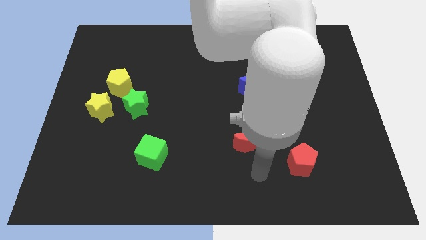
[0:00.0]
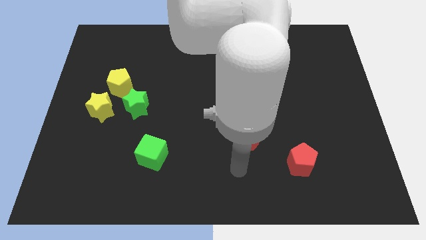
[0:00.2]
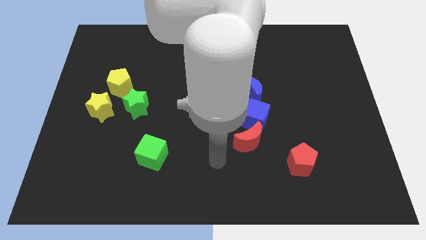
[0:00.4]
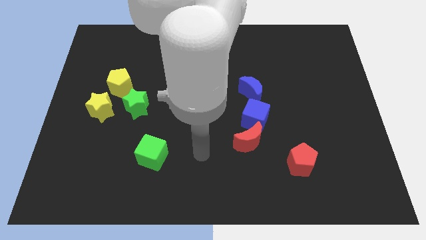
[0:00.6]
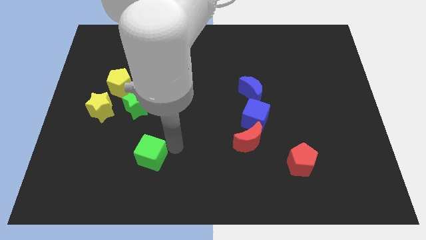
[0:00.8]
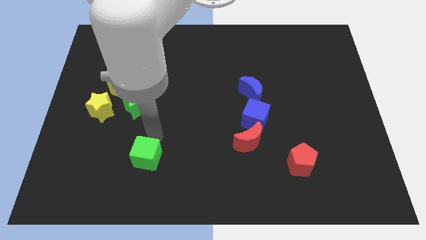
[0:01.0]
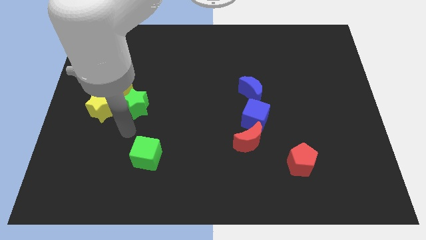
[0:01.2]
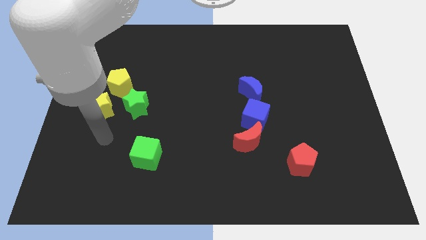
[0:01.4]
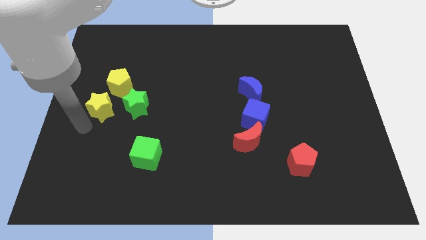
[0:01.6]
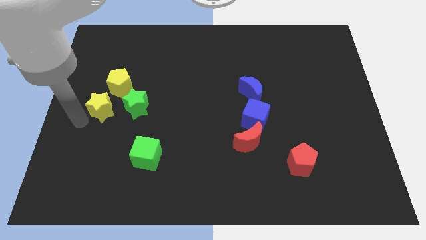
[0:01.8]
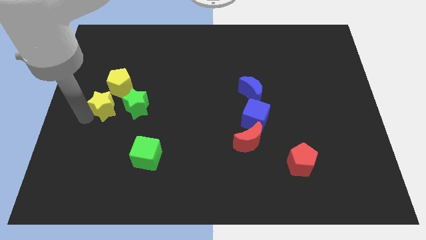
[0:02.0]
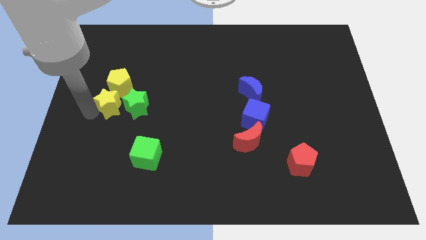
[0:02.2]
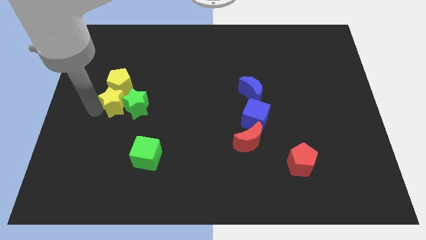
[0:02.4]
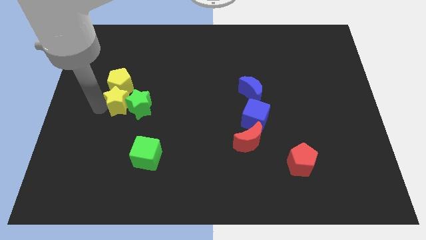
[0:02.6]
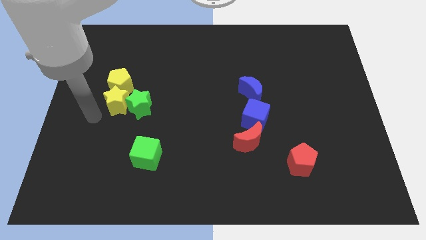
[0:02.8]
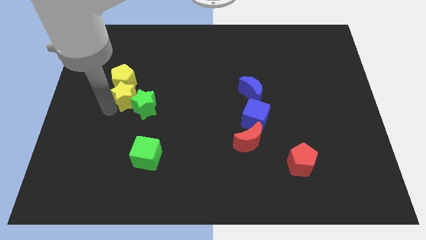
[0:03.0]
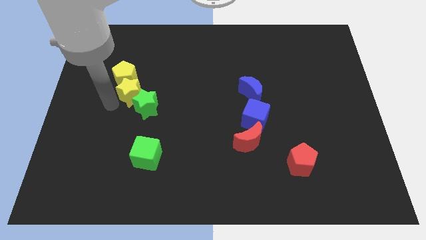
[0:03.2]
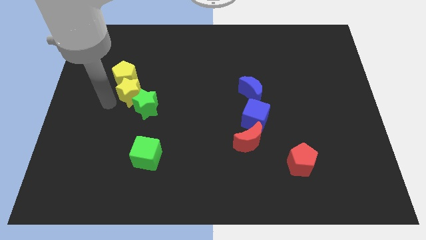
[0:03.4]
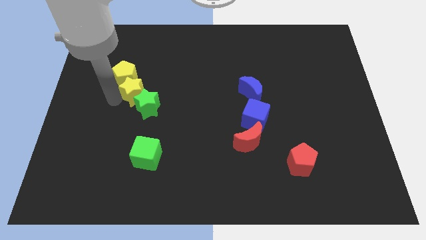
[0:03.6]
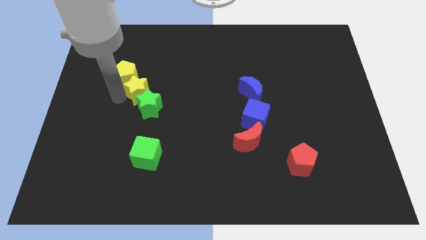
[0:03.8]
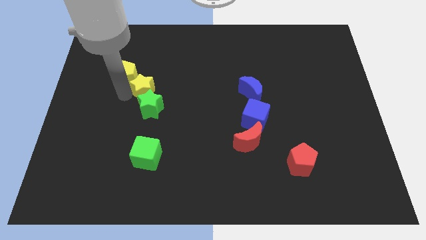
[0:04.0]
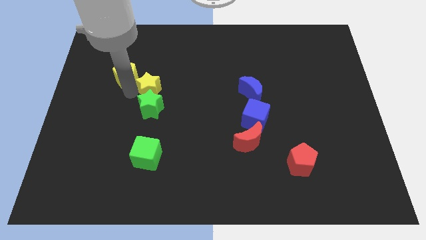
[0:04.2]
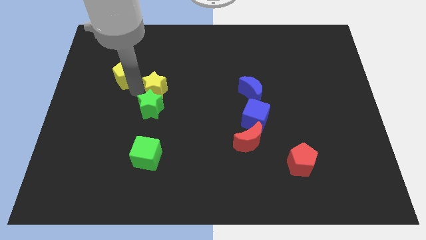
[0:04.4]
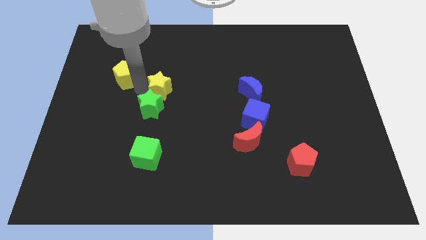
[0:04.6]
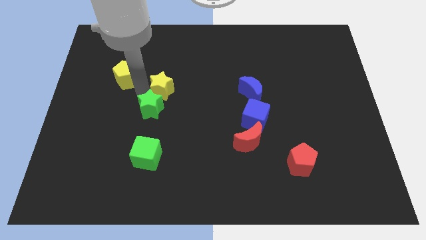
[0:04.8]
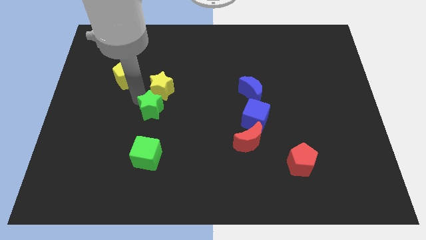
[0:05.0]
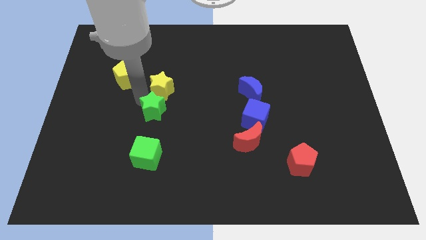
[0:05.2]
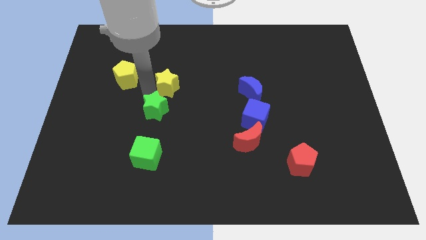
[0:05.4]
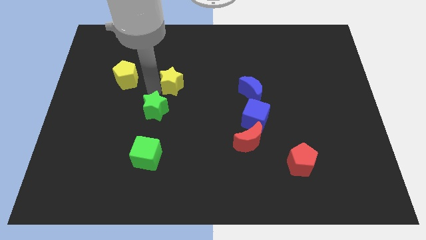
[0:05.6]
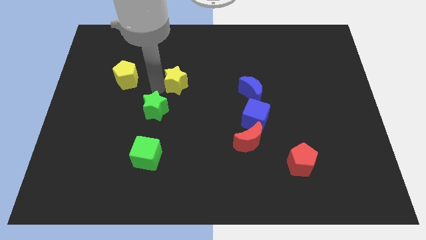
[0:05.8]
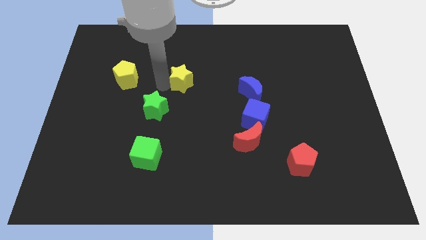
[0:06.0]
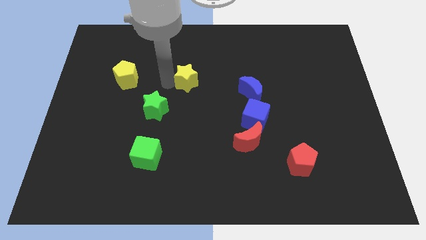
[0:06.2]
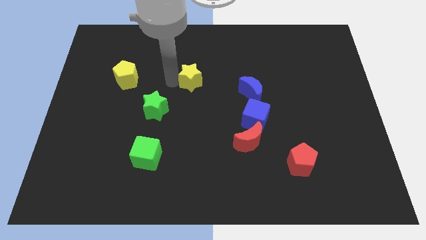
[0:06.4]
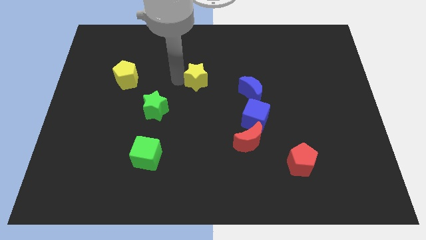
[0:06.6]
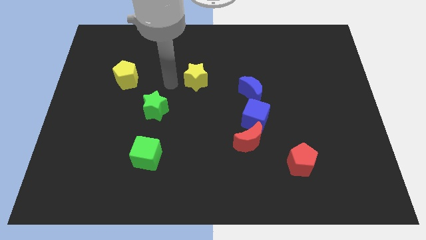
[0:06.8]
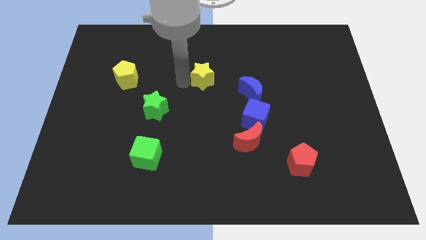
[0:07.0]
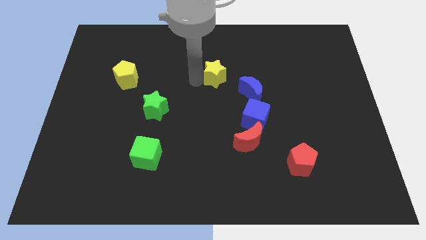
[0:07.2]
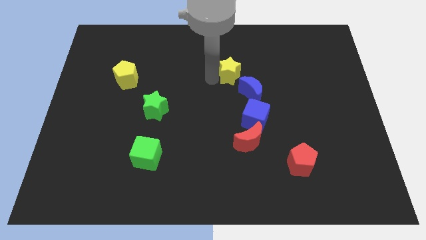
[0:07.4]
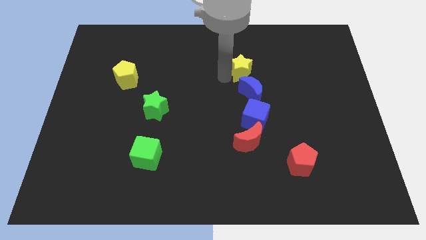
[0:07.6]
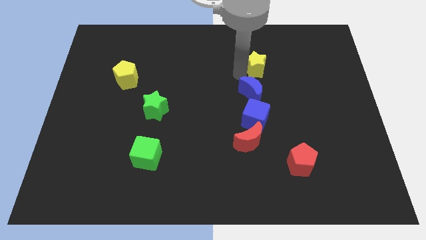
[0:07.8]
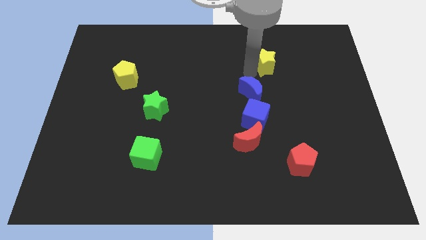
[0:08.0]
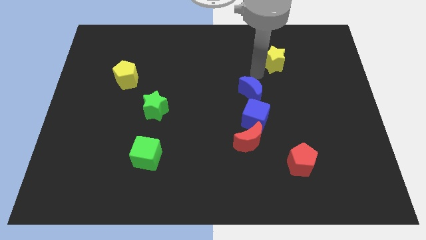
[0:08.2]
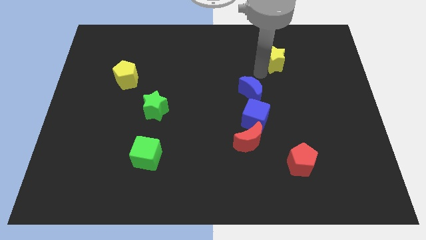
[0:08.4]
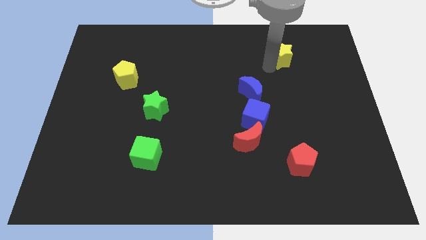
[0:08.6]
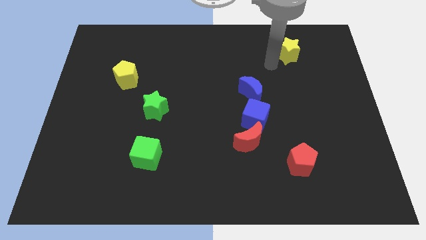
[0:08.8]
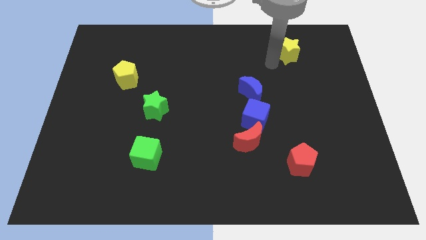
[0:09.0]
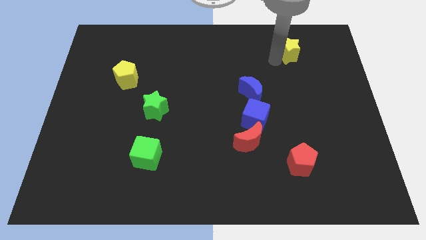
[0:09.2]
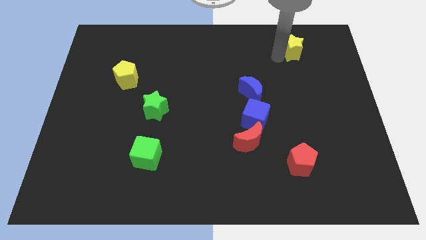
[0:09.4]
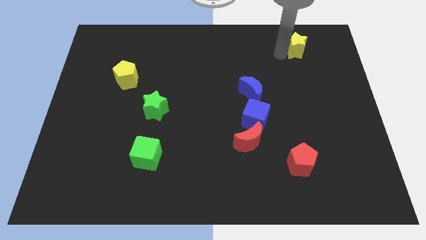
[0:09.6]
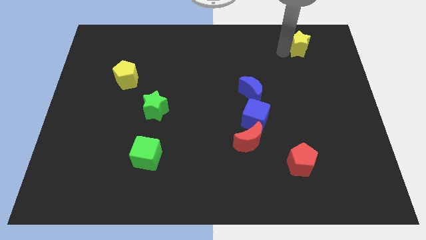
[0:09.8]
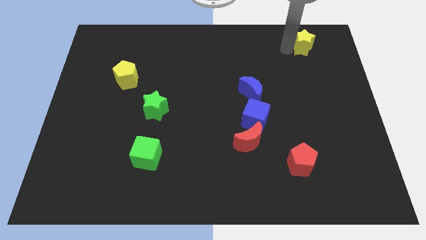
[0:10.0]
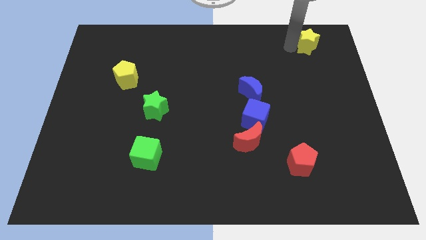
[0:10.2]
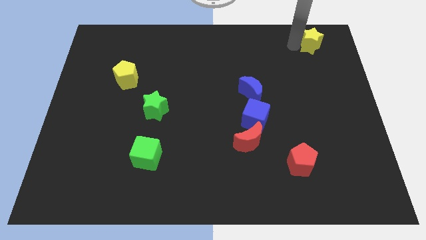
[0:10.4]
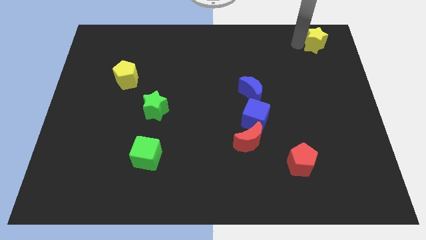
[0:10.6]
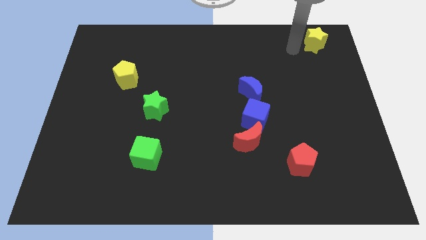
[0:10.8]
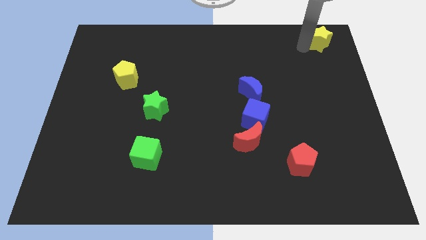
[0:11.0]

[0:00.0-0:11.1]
put the yellow star to the upper right corner

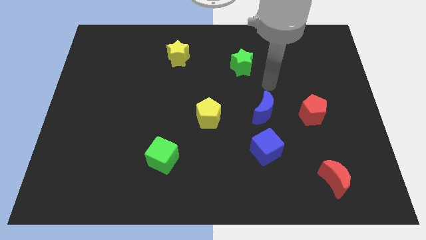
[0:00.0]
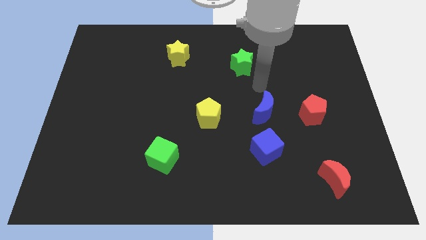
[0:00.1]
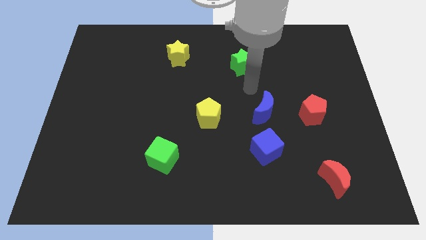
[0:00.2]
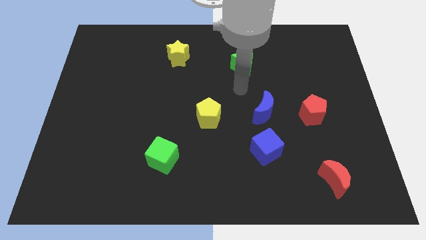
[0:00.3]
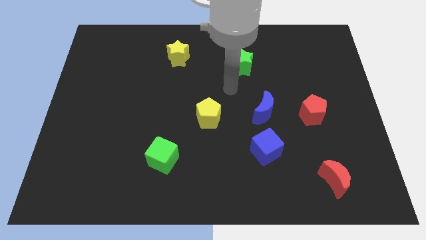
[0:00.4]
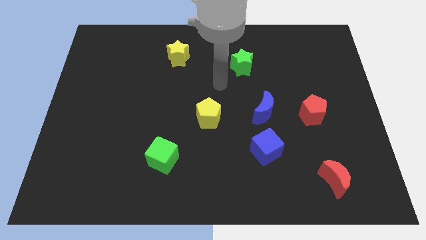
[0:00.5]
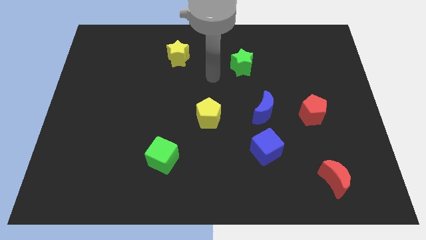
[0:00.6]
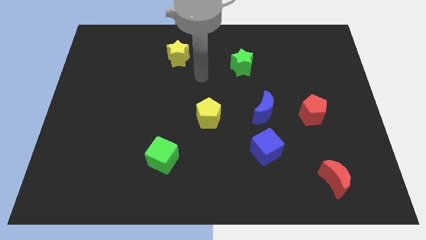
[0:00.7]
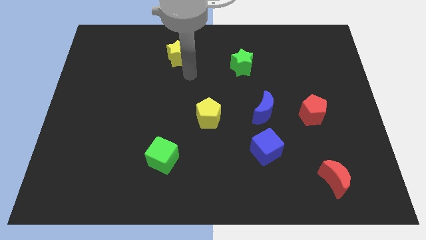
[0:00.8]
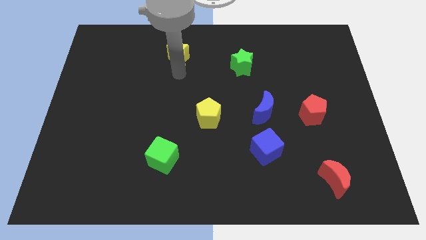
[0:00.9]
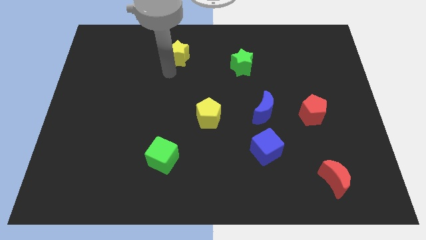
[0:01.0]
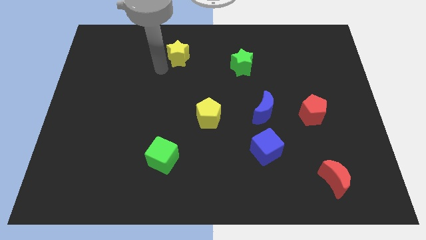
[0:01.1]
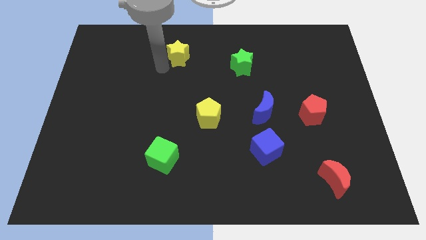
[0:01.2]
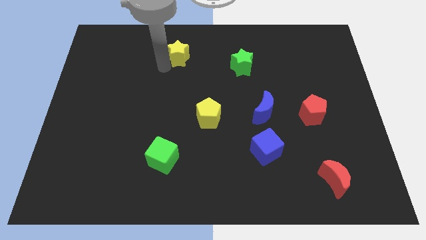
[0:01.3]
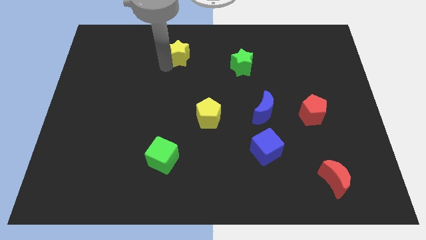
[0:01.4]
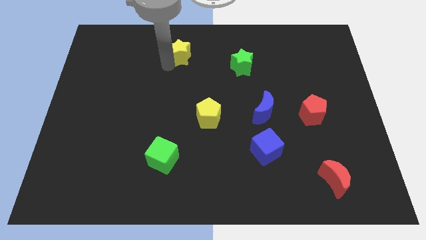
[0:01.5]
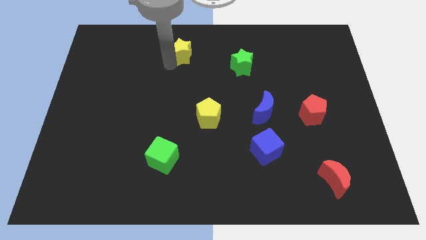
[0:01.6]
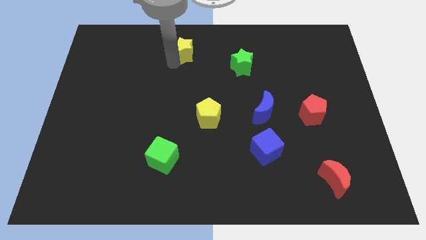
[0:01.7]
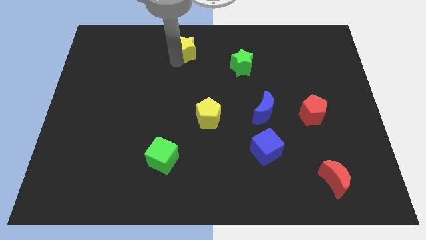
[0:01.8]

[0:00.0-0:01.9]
move the yellow star to the top side
